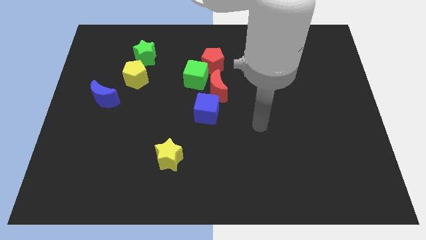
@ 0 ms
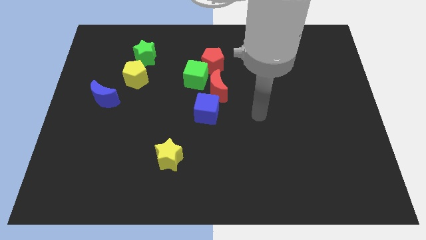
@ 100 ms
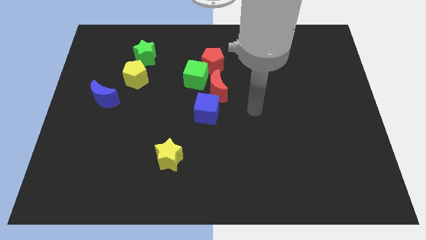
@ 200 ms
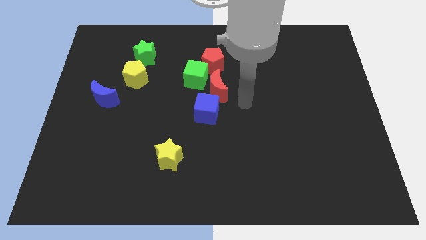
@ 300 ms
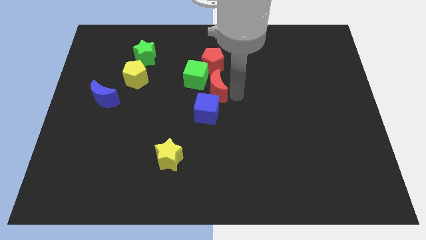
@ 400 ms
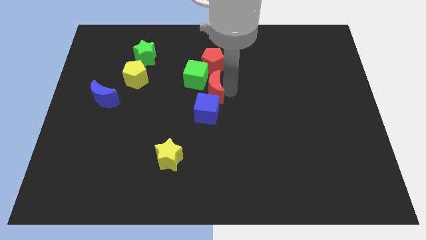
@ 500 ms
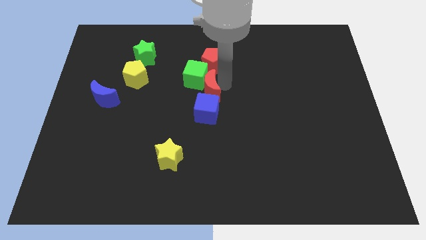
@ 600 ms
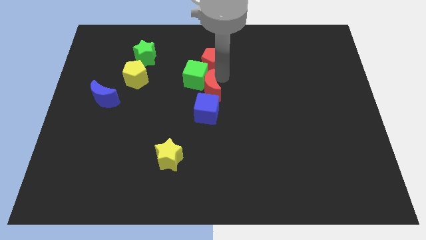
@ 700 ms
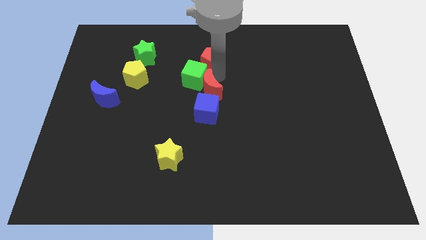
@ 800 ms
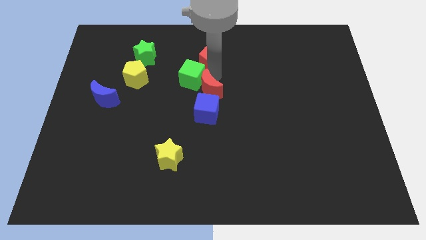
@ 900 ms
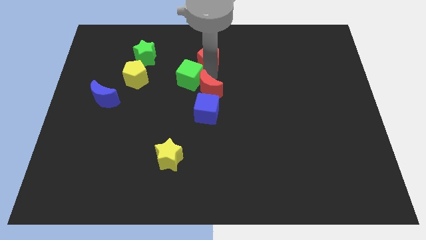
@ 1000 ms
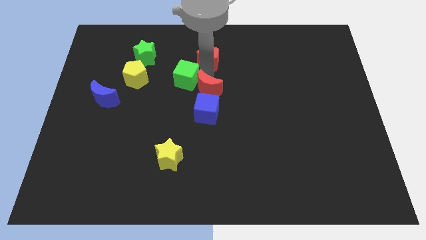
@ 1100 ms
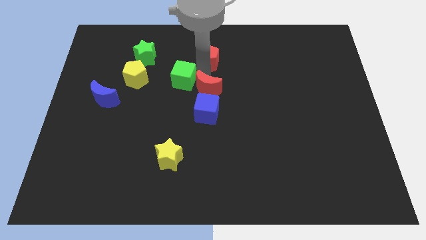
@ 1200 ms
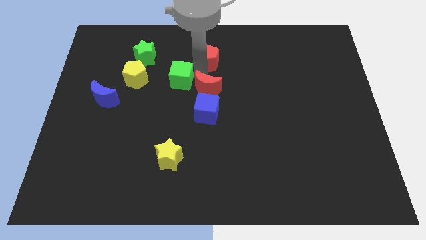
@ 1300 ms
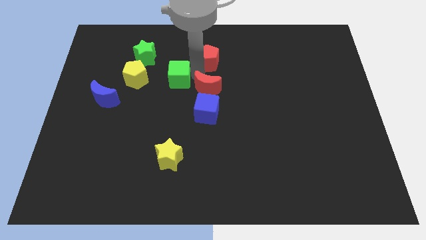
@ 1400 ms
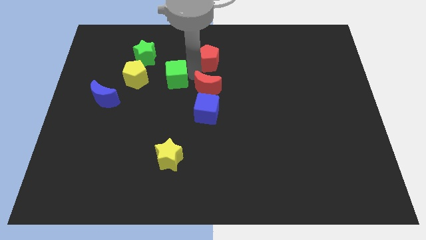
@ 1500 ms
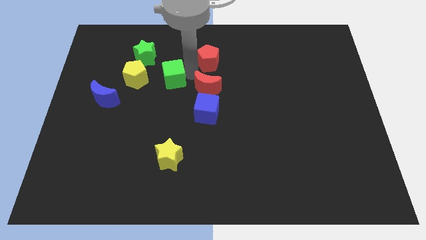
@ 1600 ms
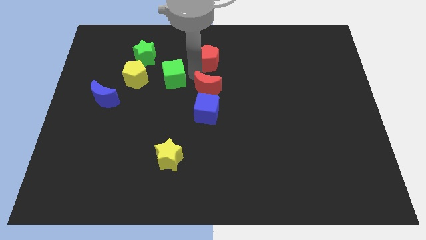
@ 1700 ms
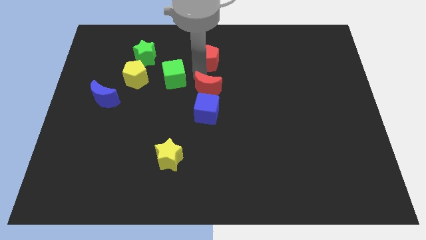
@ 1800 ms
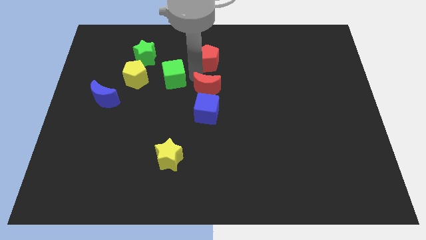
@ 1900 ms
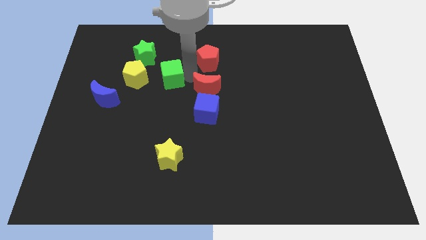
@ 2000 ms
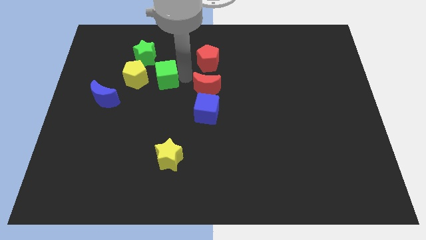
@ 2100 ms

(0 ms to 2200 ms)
move the green cube away from the red pentagon and red moon

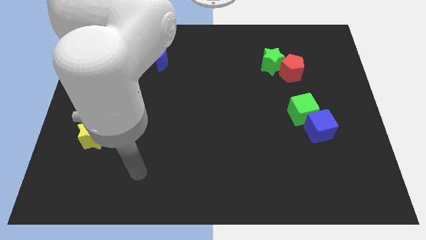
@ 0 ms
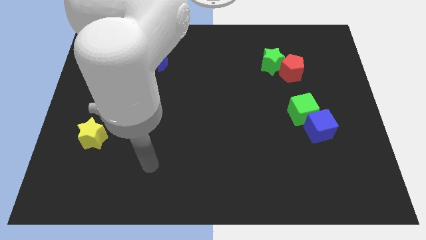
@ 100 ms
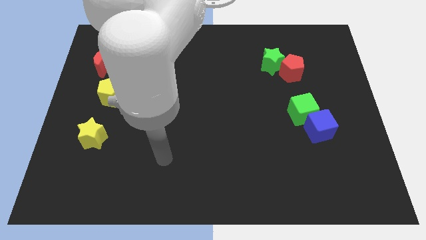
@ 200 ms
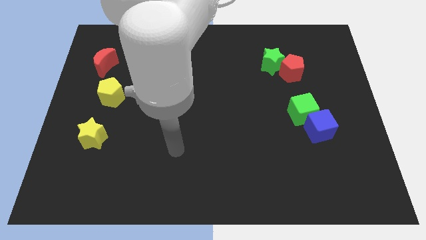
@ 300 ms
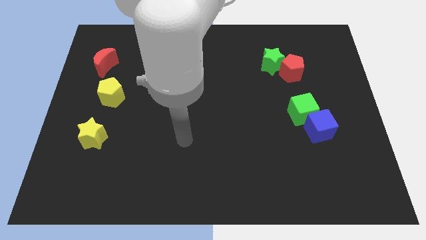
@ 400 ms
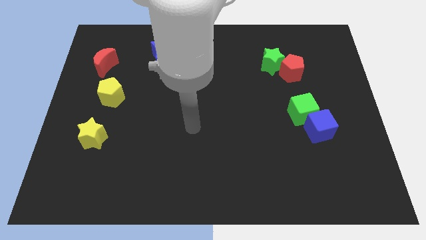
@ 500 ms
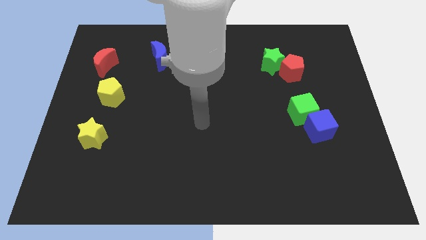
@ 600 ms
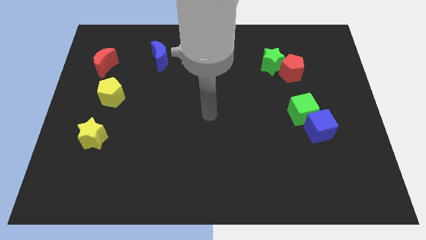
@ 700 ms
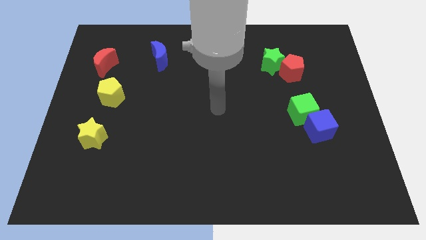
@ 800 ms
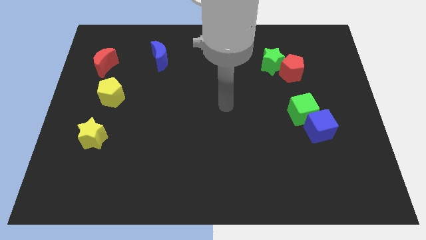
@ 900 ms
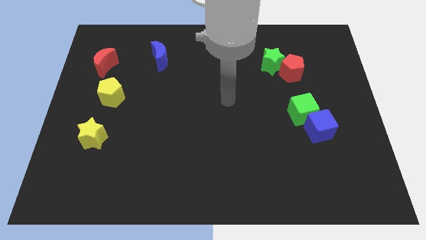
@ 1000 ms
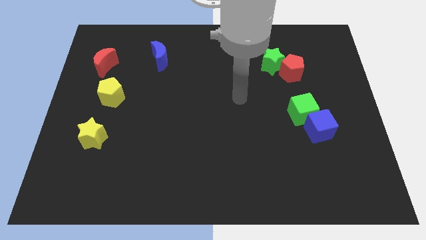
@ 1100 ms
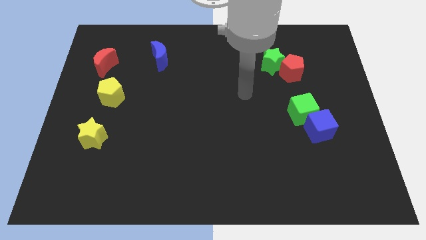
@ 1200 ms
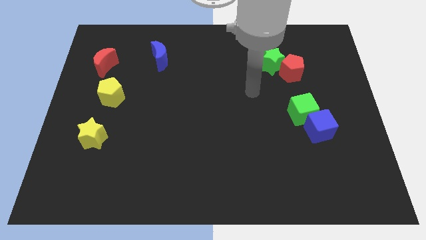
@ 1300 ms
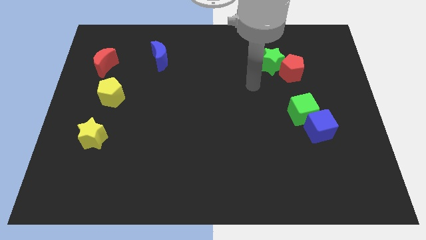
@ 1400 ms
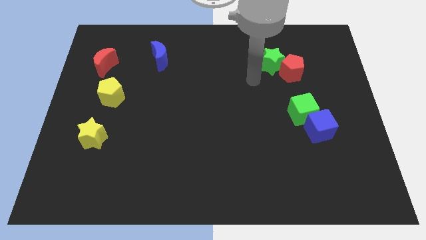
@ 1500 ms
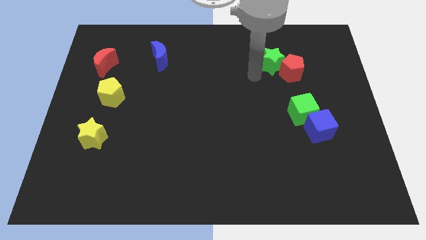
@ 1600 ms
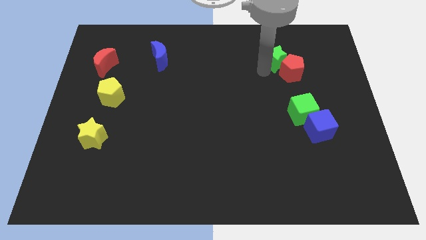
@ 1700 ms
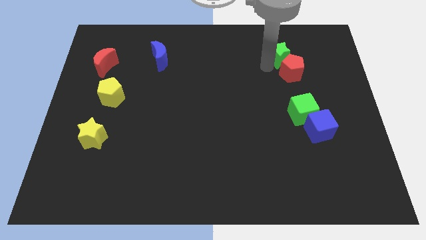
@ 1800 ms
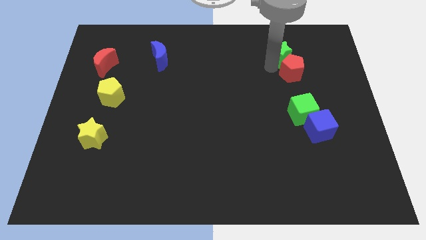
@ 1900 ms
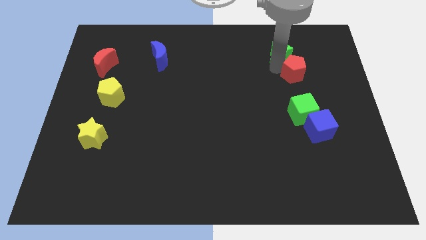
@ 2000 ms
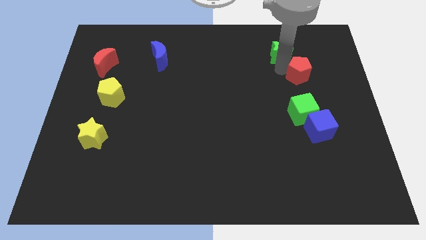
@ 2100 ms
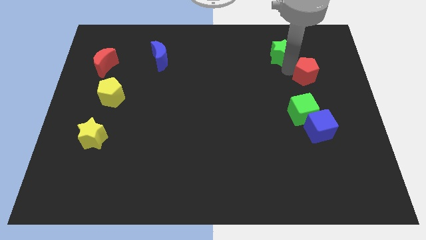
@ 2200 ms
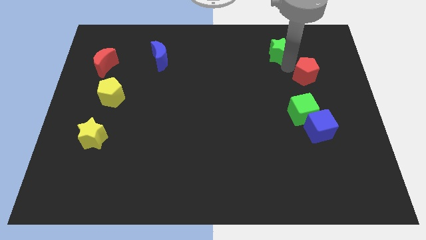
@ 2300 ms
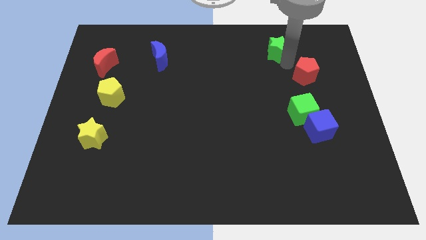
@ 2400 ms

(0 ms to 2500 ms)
move the red pentagon away from the green star

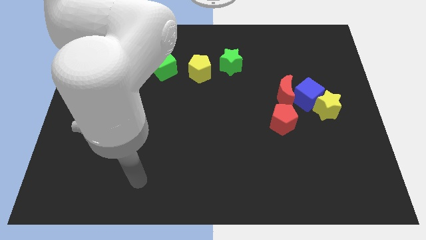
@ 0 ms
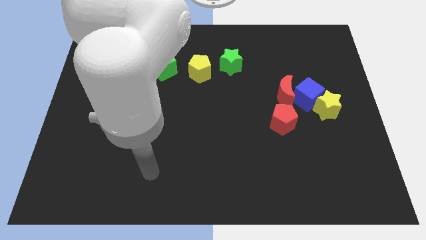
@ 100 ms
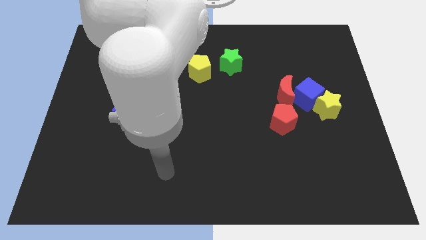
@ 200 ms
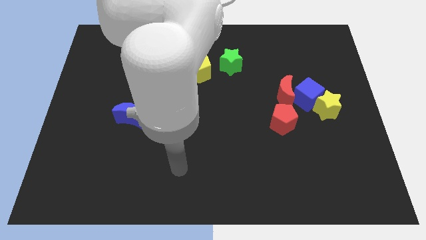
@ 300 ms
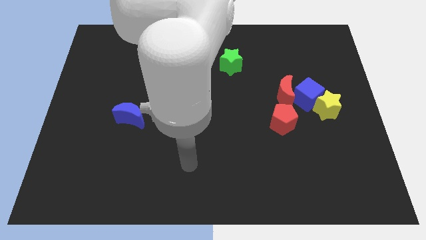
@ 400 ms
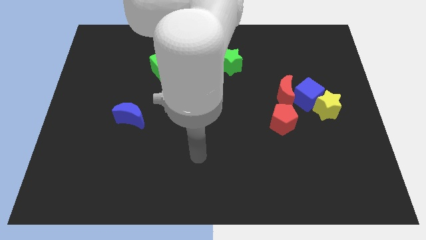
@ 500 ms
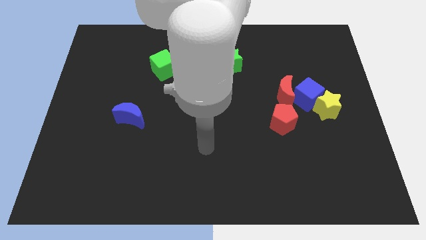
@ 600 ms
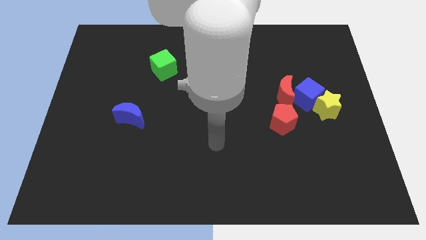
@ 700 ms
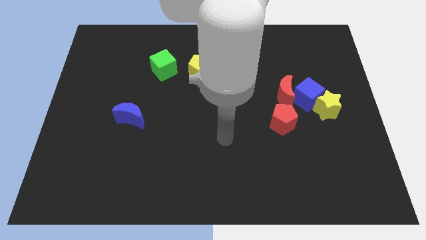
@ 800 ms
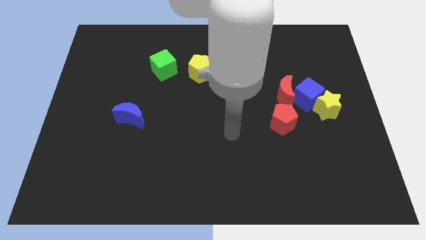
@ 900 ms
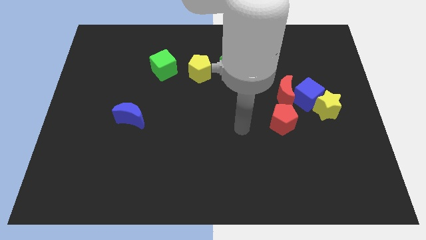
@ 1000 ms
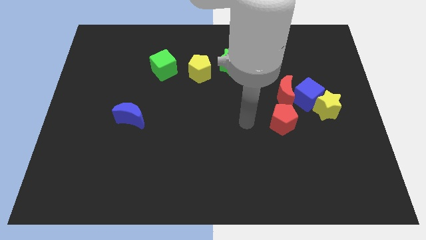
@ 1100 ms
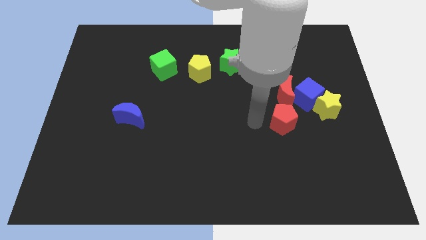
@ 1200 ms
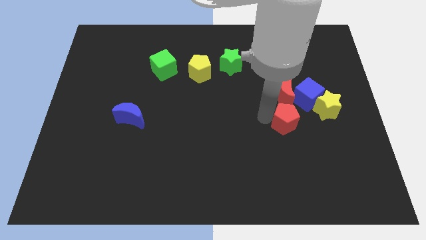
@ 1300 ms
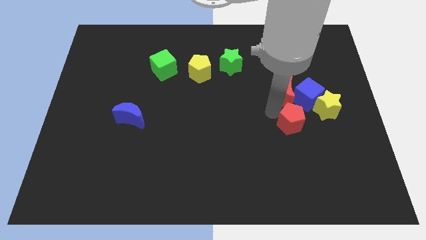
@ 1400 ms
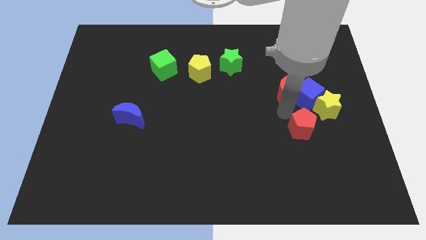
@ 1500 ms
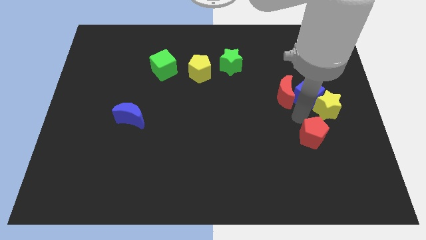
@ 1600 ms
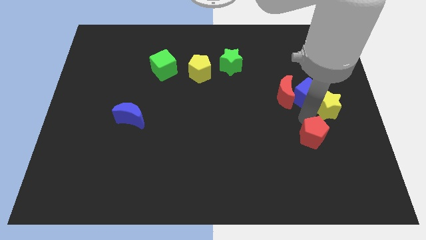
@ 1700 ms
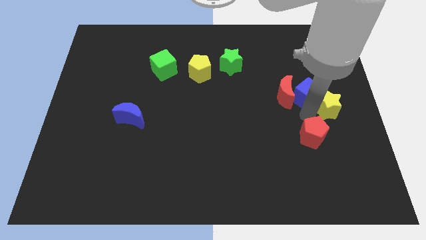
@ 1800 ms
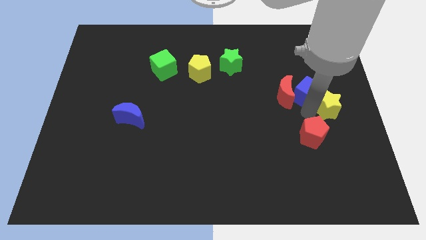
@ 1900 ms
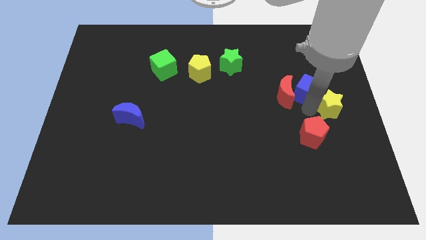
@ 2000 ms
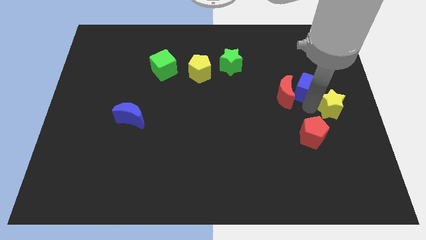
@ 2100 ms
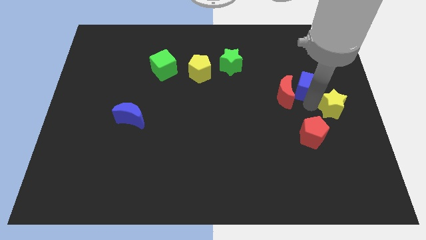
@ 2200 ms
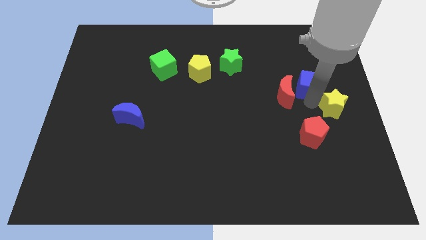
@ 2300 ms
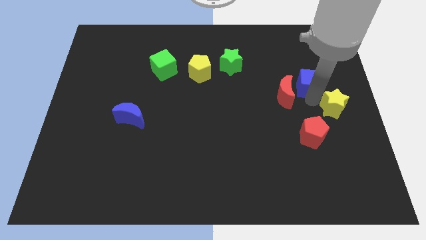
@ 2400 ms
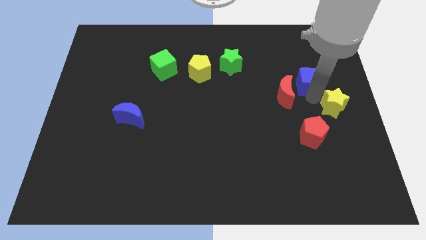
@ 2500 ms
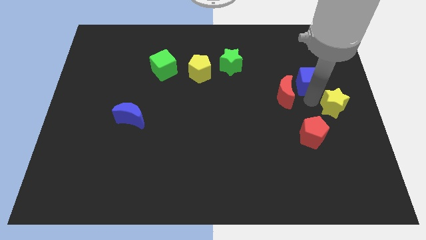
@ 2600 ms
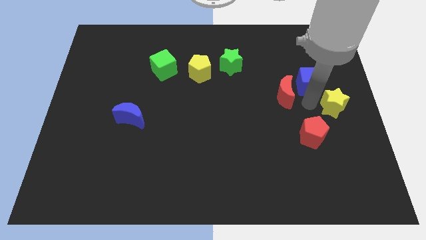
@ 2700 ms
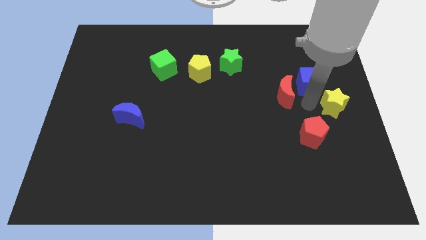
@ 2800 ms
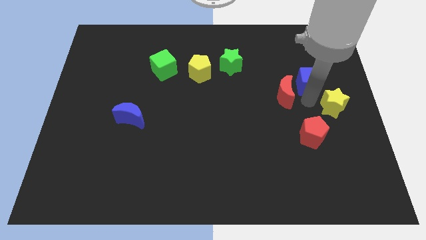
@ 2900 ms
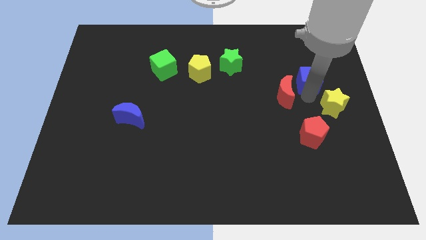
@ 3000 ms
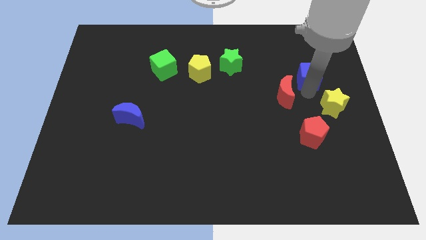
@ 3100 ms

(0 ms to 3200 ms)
separate the blue cube from the group

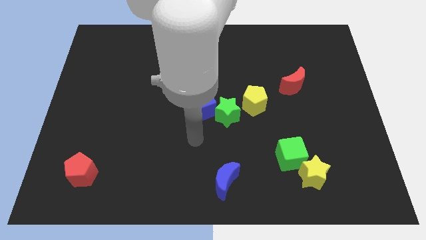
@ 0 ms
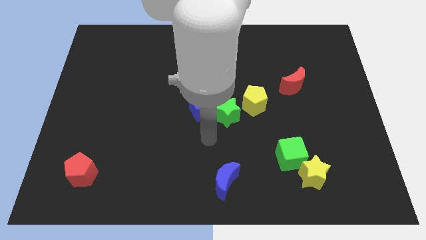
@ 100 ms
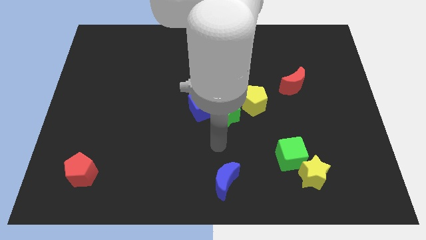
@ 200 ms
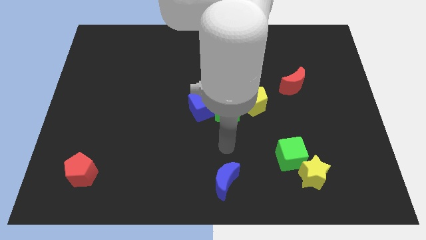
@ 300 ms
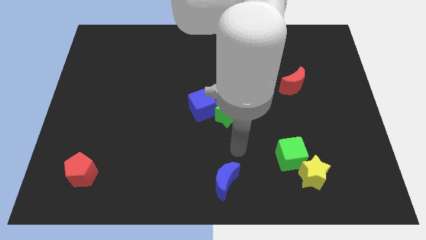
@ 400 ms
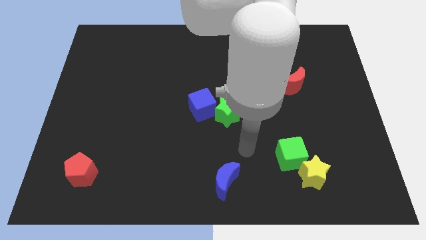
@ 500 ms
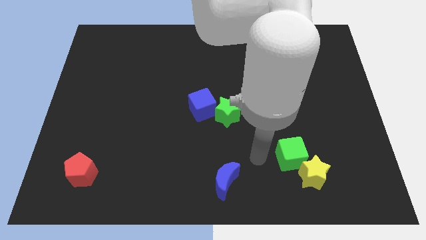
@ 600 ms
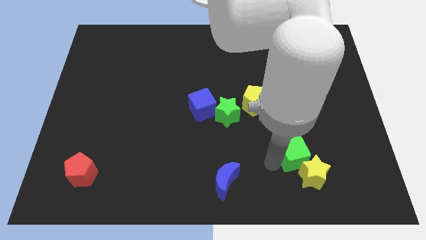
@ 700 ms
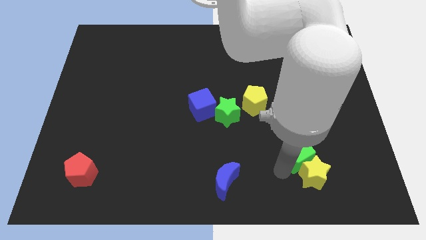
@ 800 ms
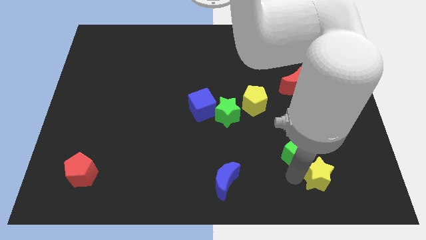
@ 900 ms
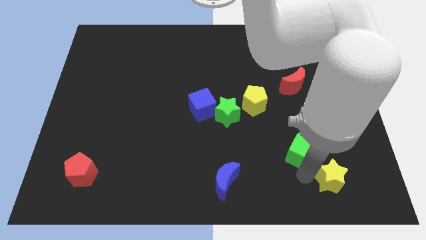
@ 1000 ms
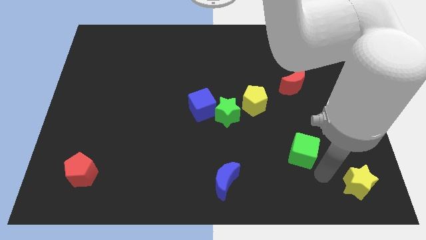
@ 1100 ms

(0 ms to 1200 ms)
move the green cube away from the yellow star

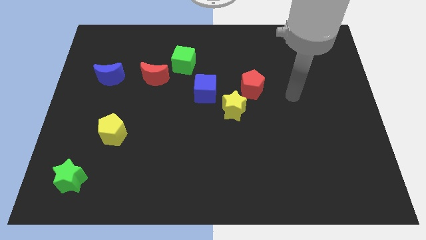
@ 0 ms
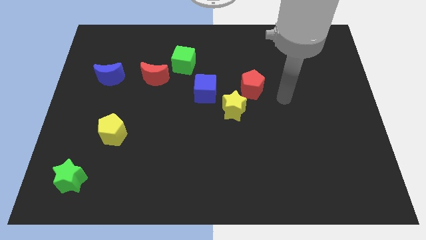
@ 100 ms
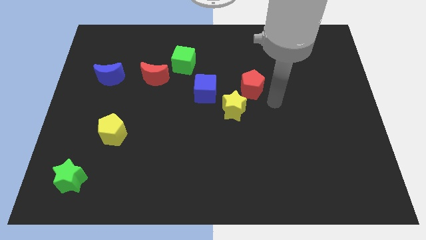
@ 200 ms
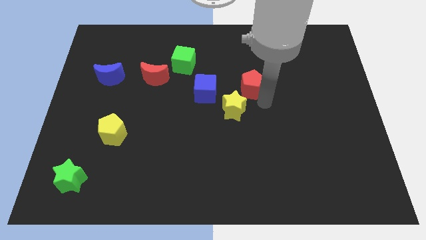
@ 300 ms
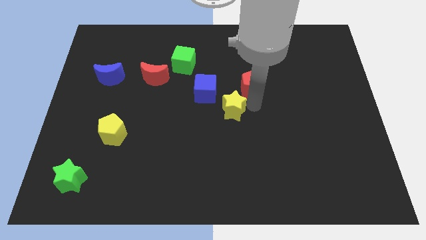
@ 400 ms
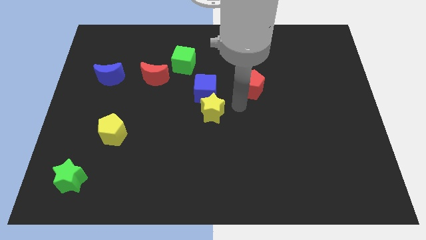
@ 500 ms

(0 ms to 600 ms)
pull the red pentagon apart from the yellow star
